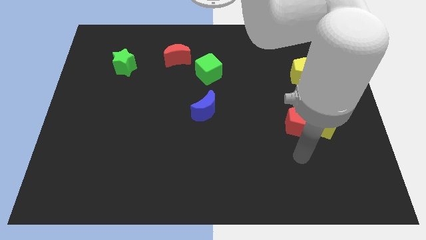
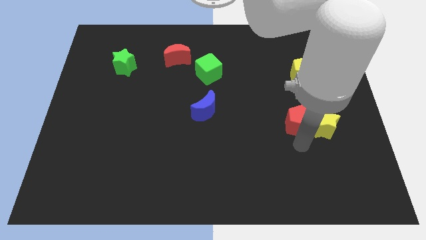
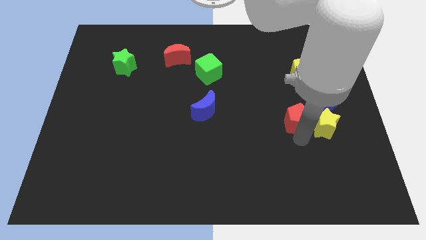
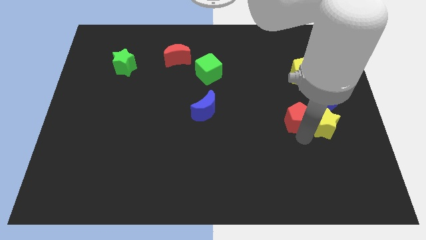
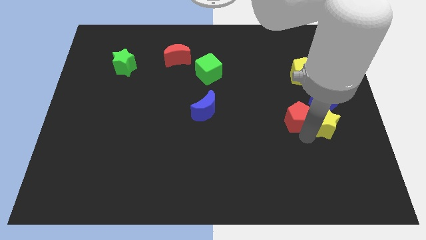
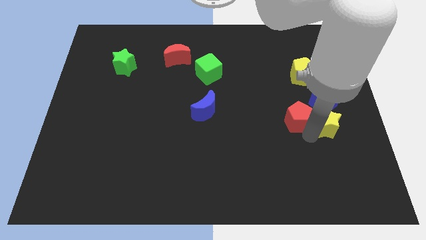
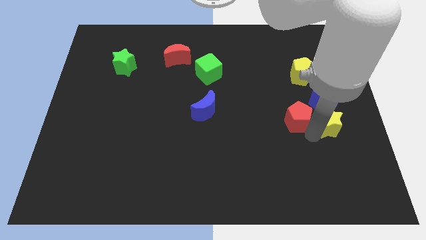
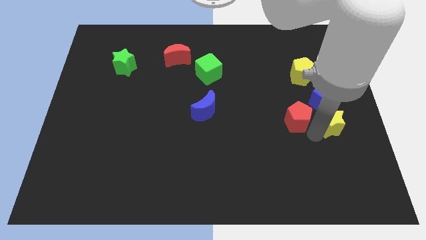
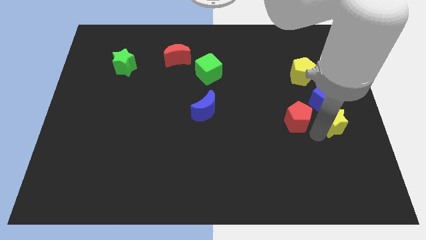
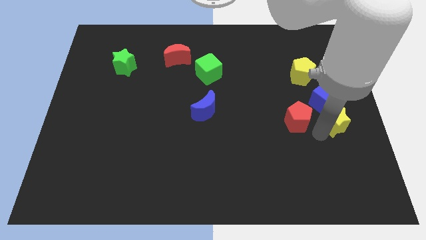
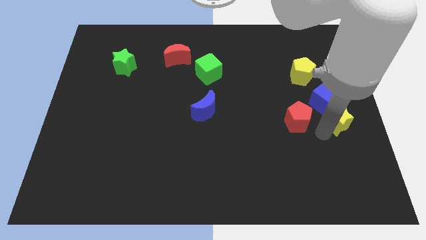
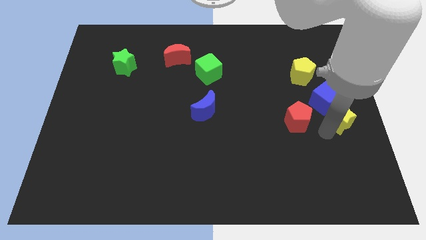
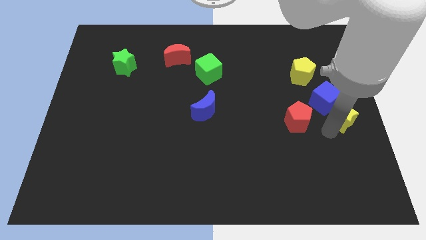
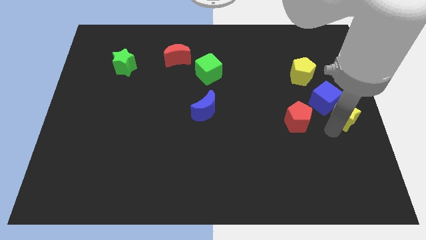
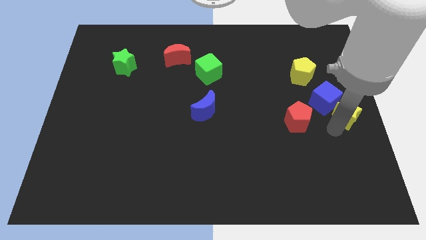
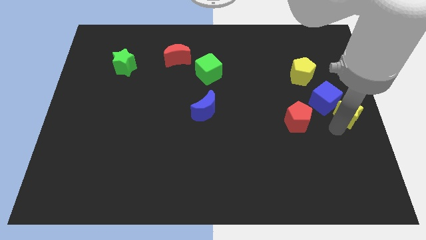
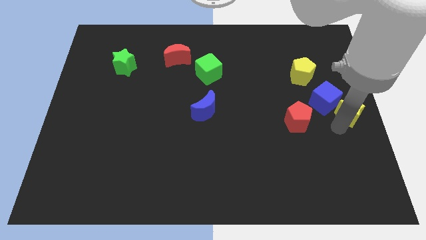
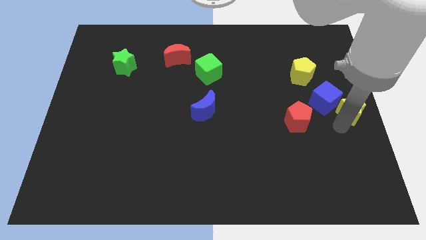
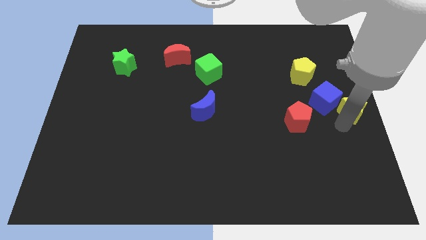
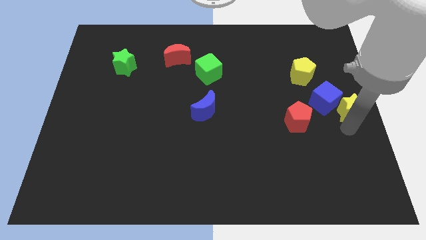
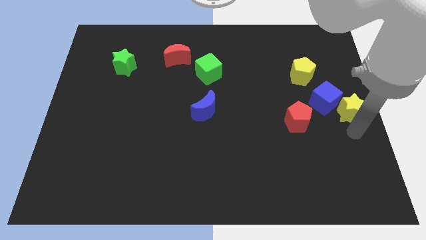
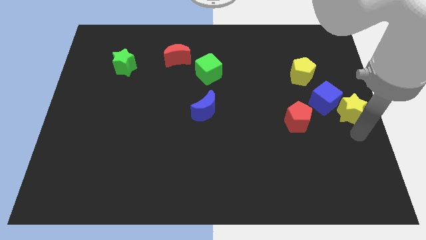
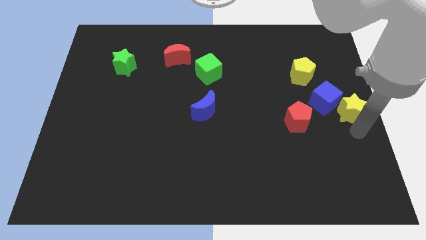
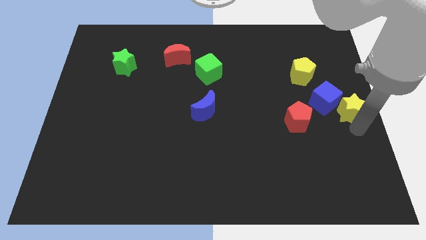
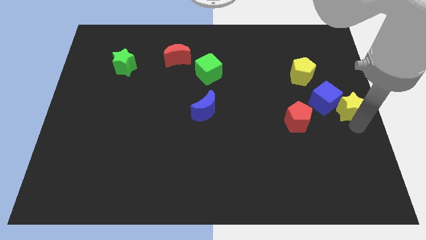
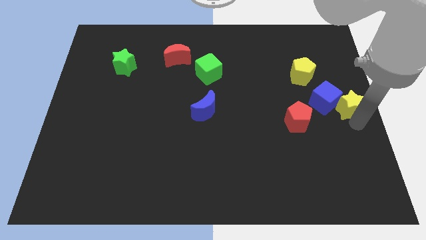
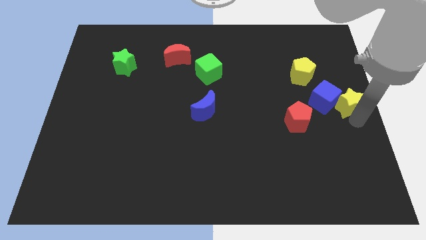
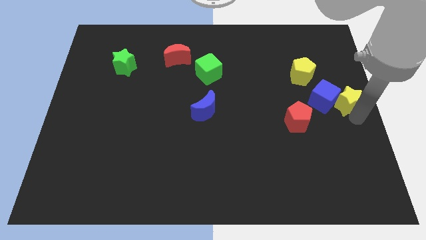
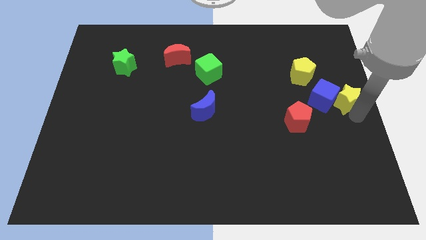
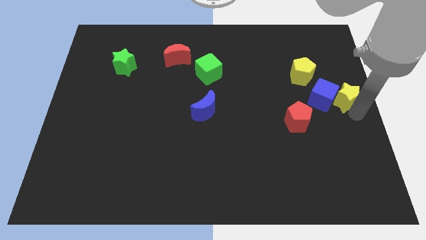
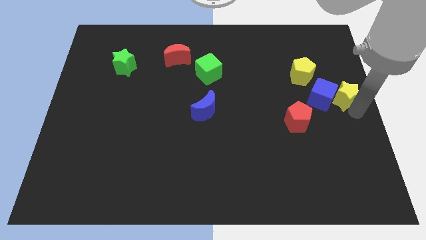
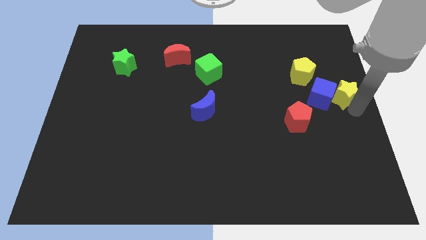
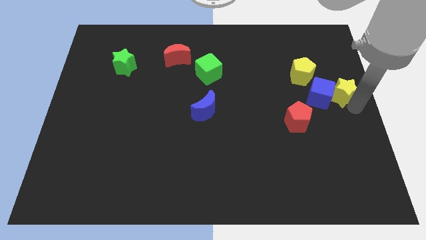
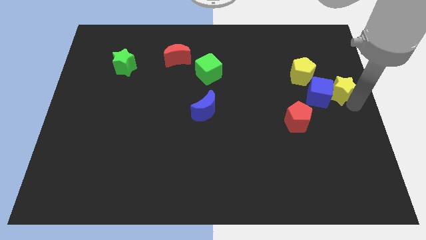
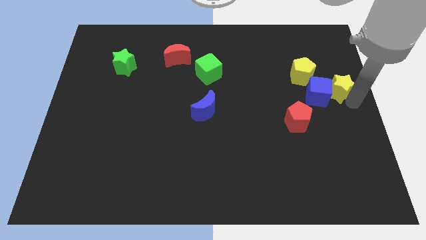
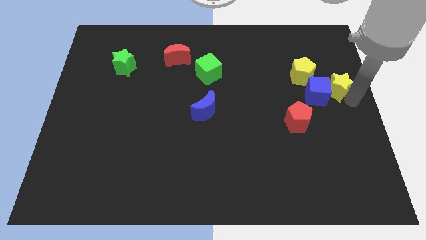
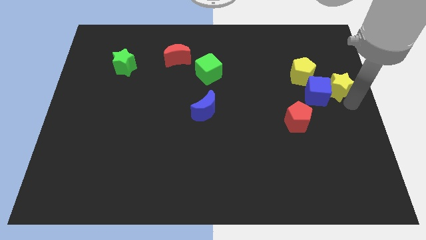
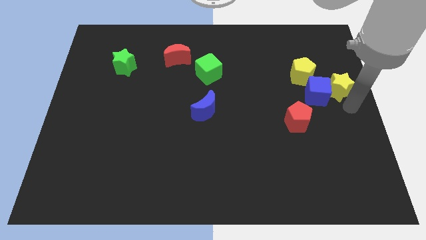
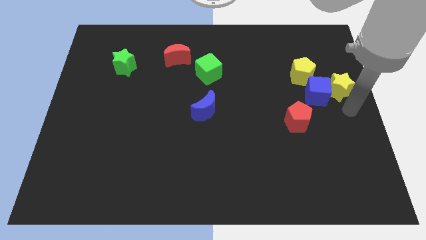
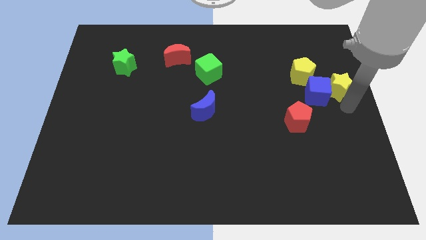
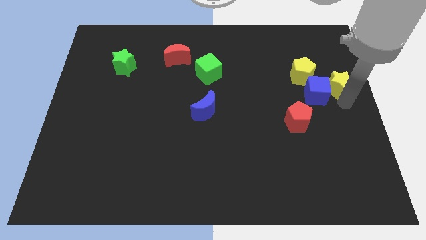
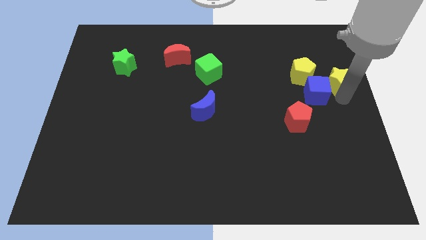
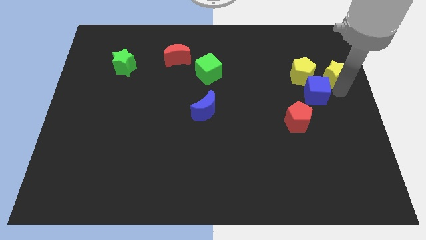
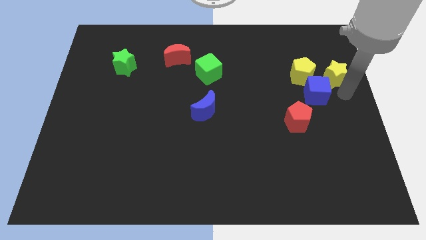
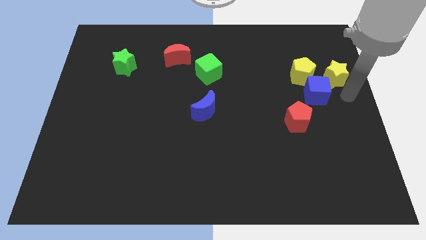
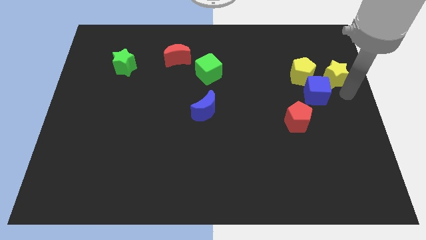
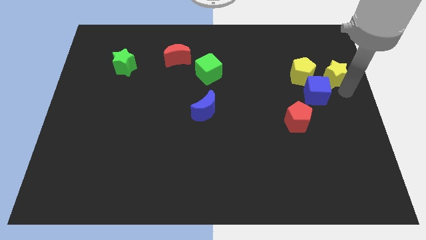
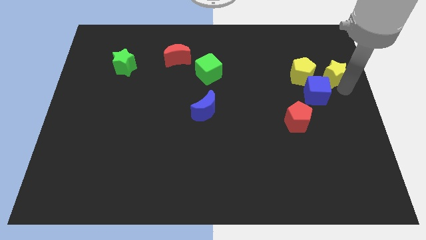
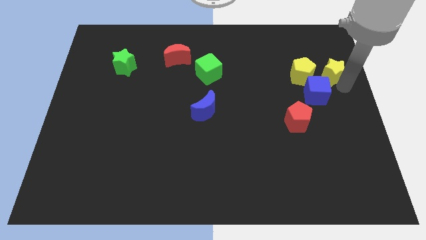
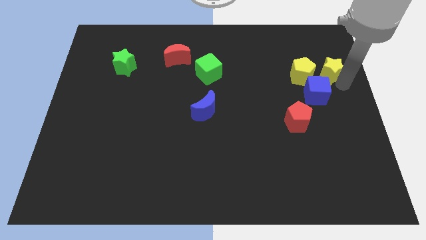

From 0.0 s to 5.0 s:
push the yellow star to the top right side of the yellow pentagon

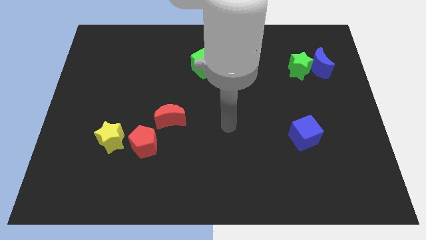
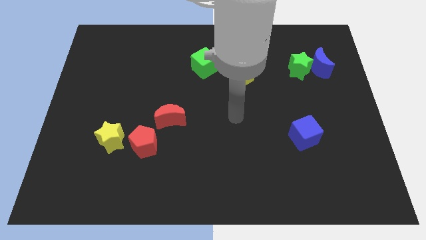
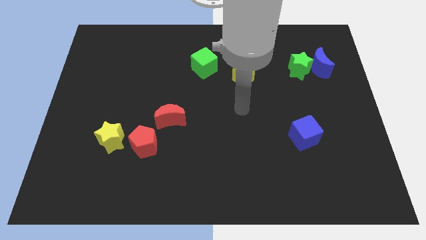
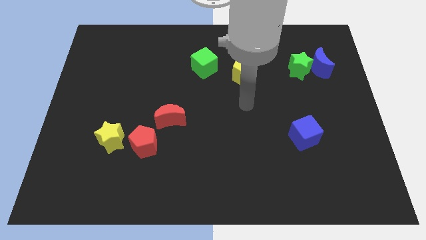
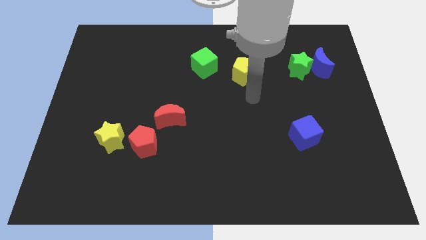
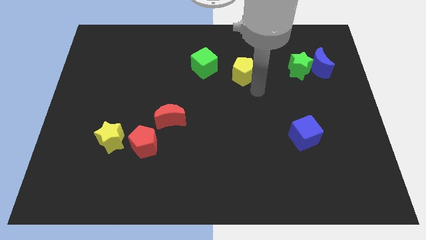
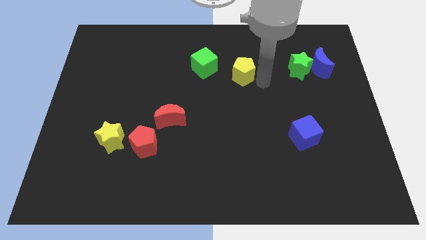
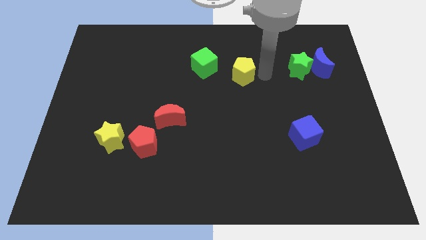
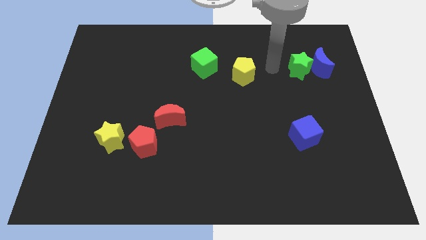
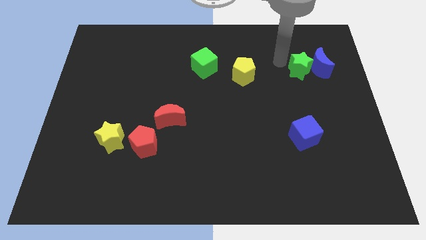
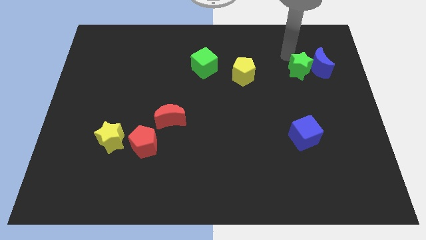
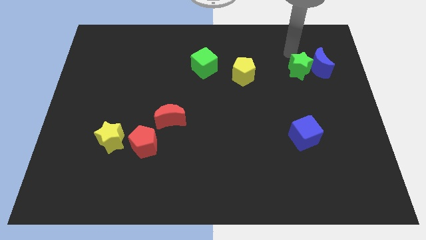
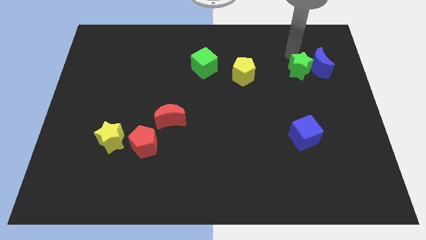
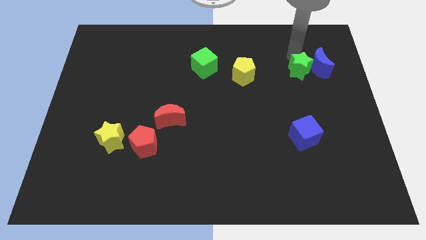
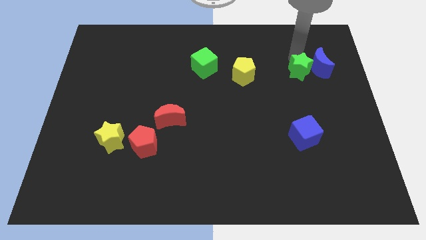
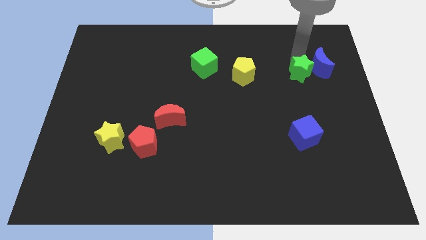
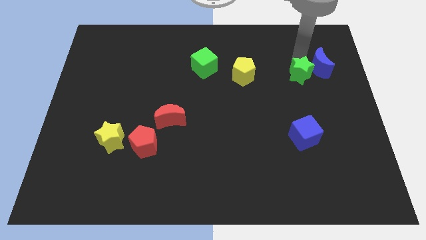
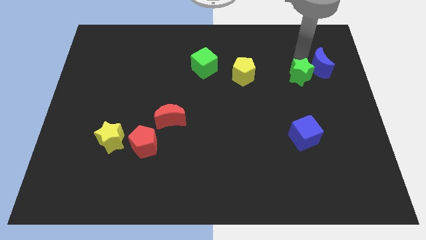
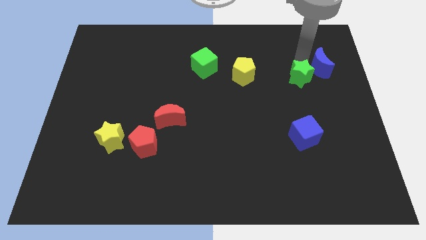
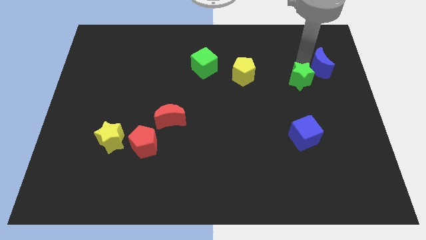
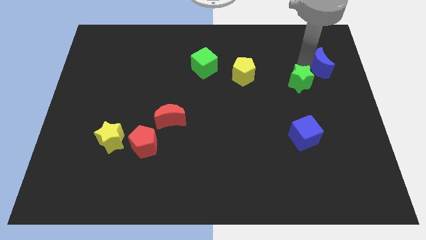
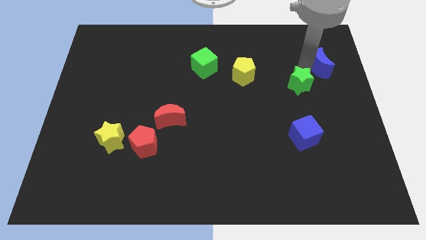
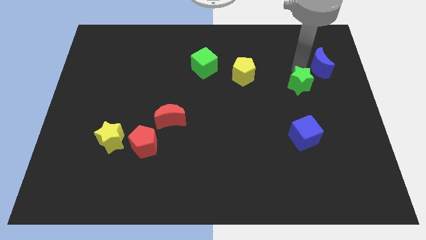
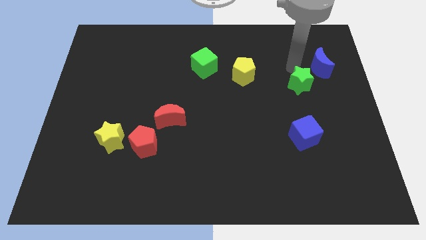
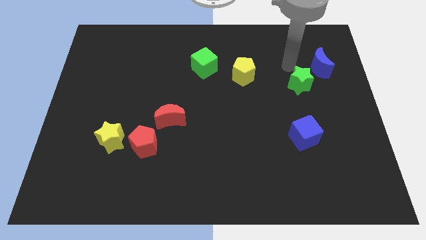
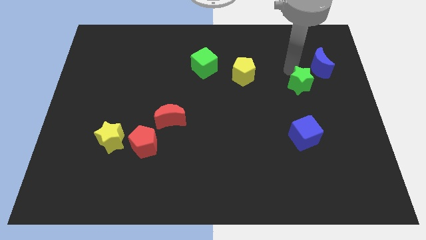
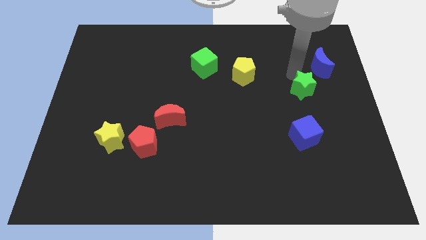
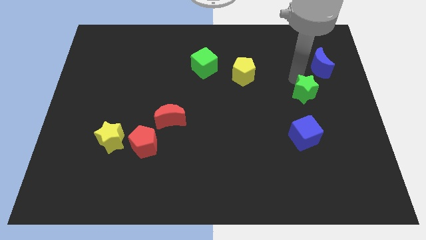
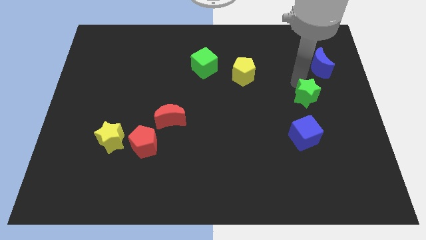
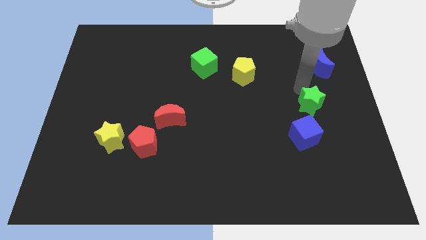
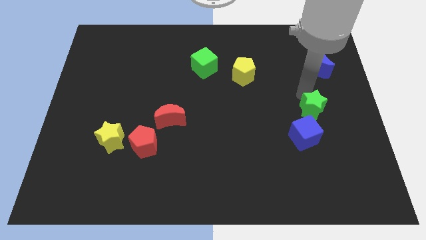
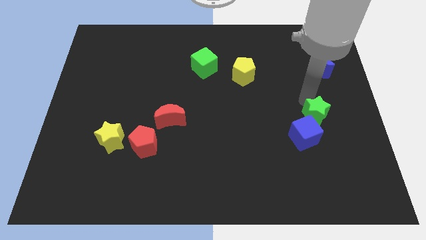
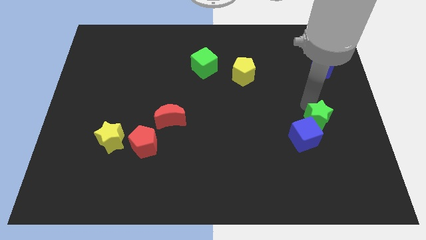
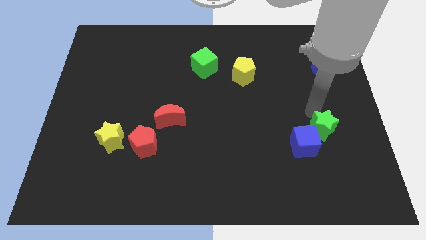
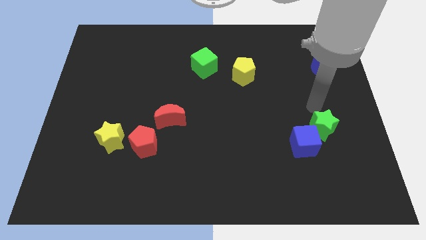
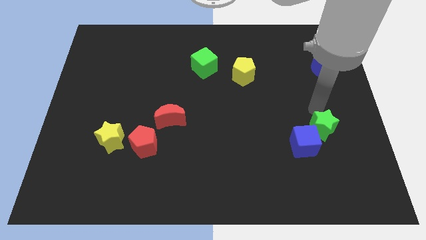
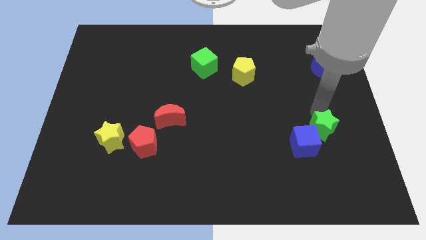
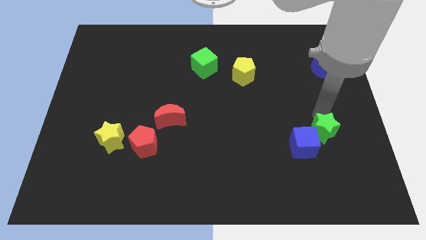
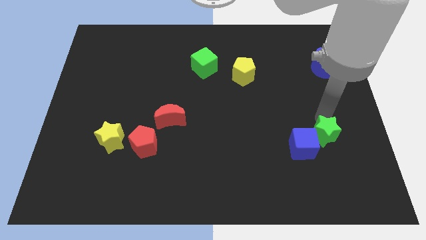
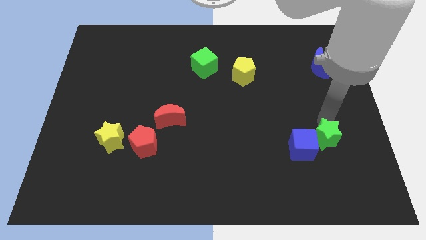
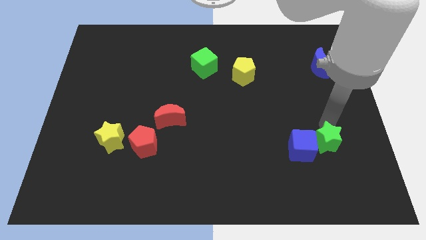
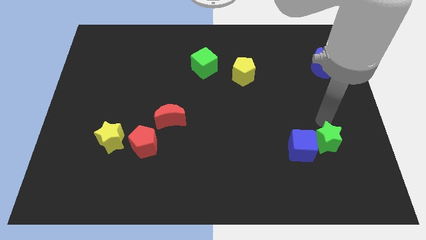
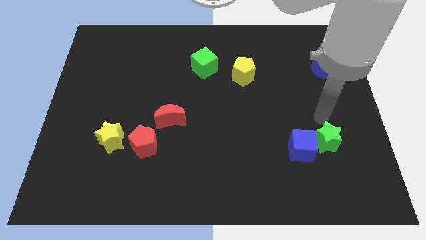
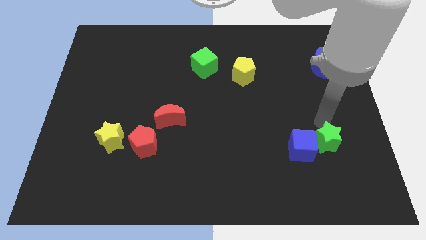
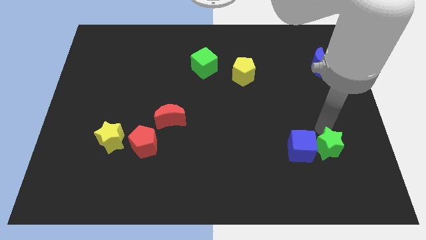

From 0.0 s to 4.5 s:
put the green star to the bottom right of the blue cube
